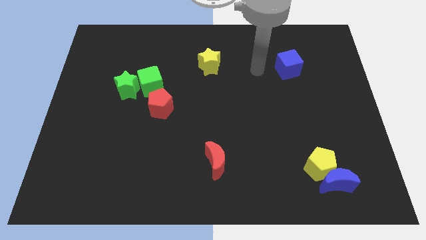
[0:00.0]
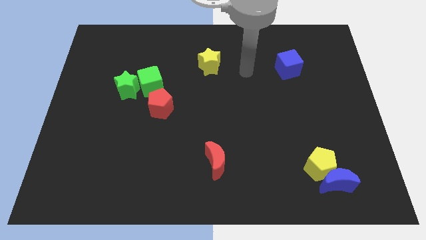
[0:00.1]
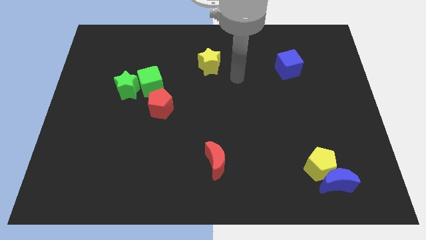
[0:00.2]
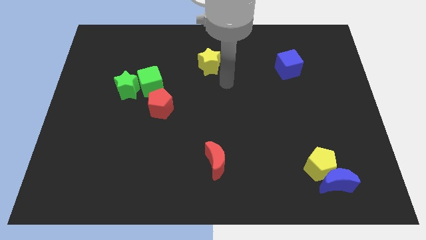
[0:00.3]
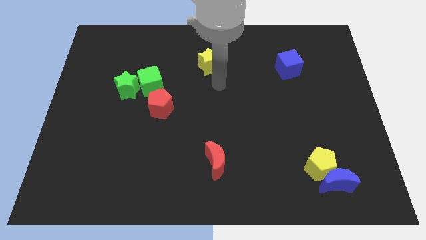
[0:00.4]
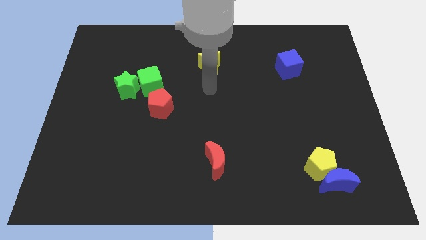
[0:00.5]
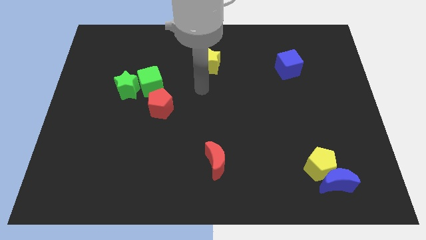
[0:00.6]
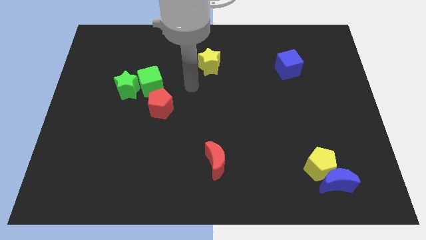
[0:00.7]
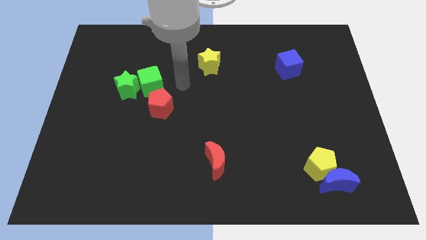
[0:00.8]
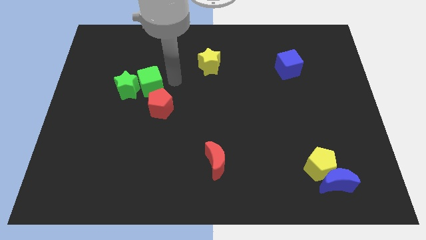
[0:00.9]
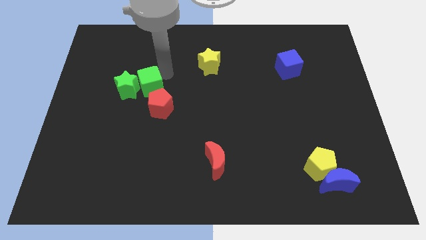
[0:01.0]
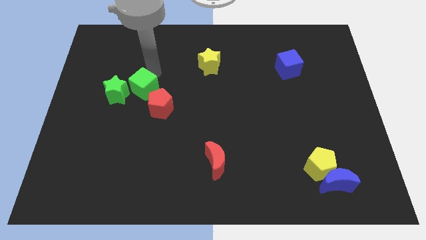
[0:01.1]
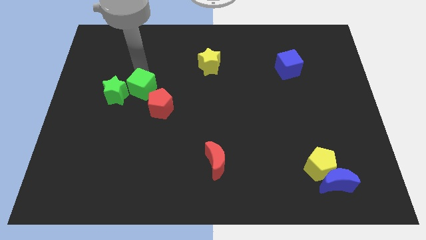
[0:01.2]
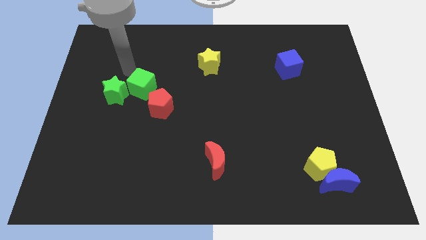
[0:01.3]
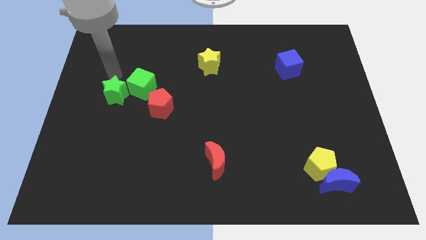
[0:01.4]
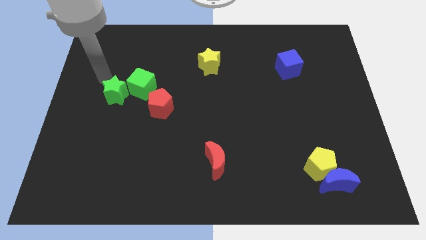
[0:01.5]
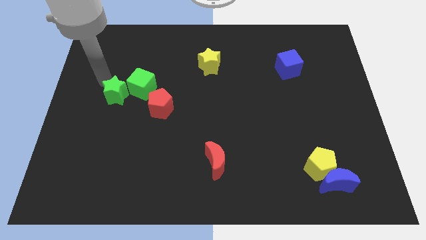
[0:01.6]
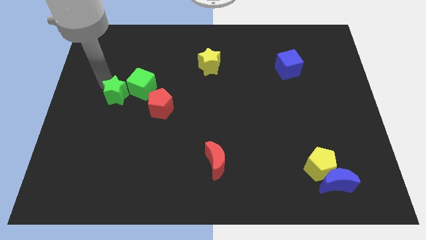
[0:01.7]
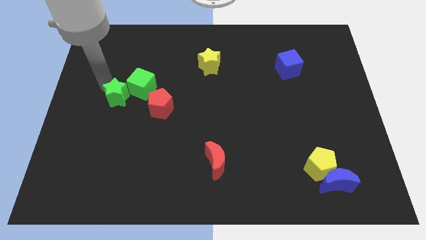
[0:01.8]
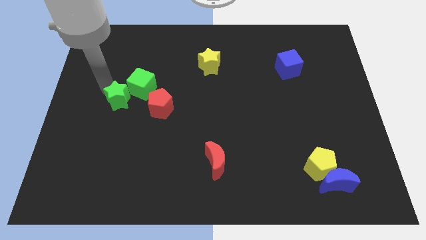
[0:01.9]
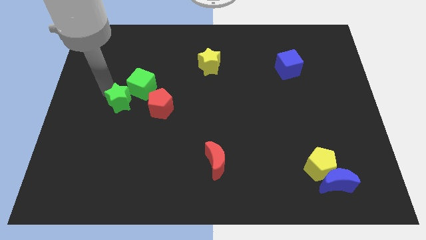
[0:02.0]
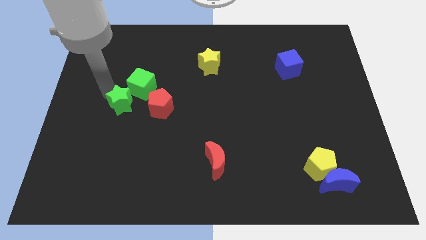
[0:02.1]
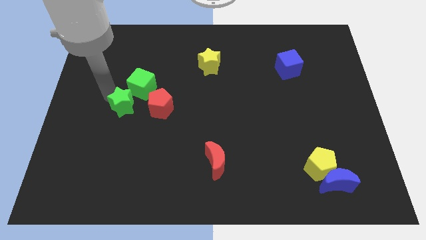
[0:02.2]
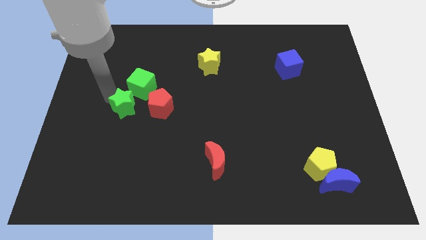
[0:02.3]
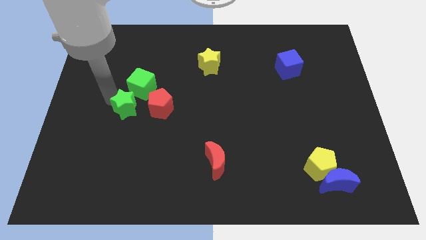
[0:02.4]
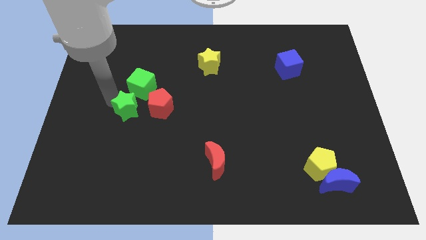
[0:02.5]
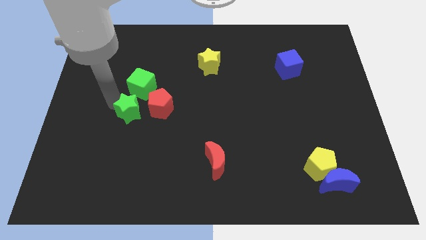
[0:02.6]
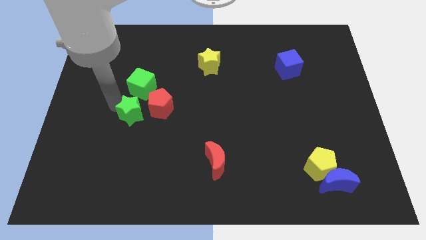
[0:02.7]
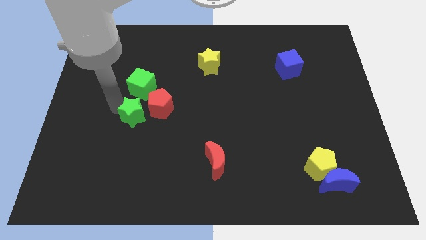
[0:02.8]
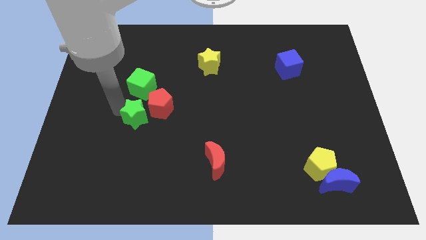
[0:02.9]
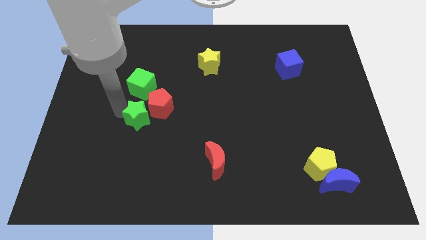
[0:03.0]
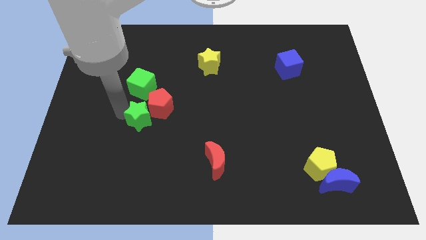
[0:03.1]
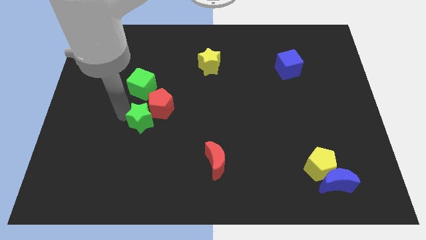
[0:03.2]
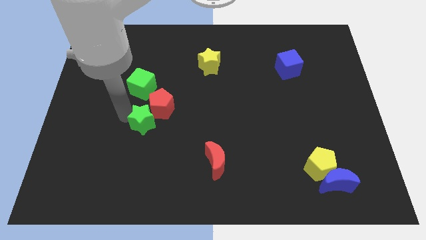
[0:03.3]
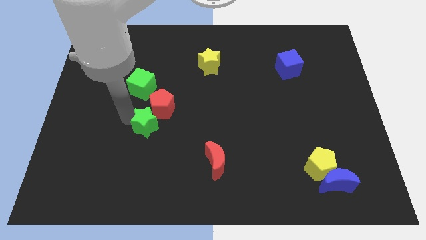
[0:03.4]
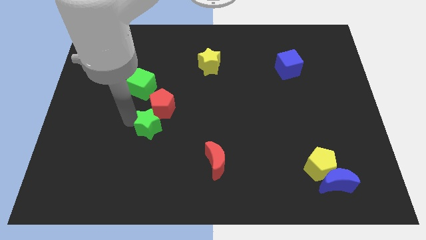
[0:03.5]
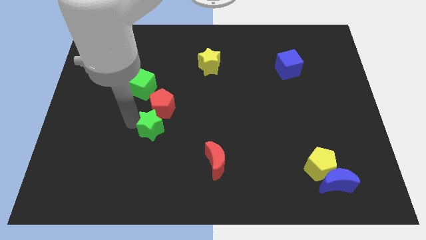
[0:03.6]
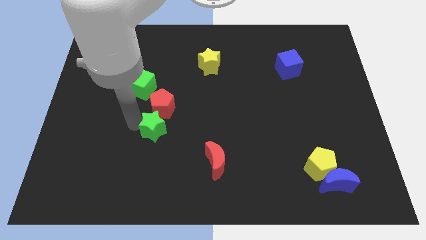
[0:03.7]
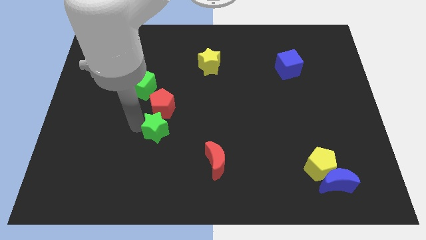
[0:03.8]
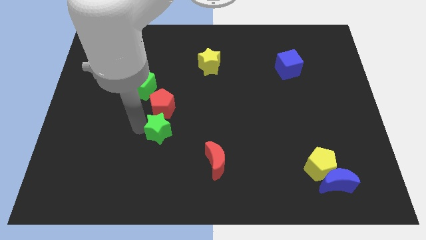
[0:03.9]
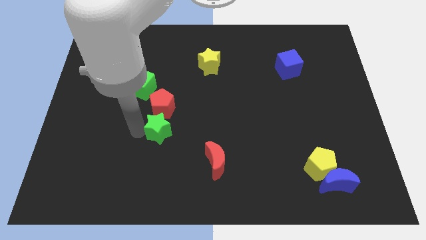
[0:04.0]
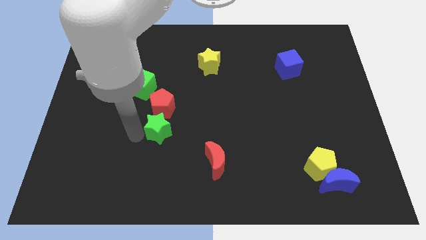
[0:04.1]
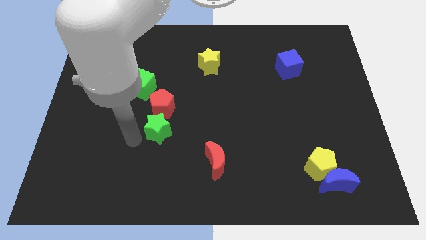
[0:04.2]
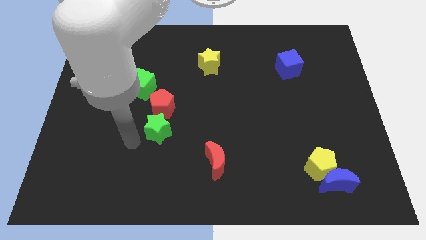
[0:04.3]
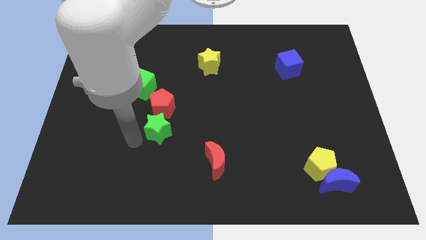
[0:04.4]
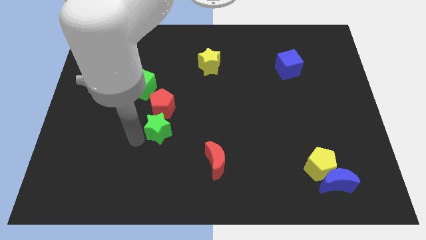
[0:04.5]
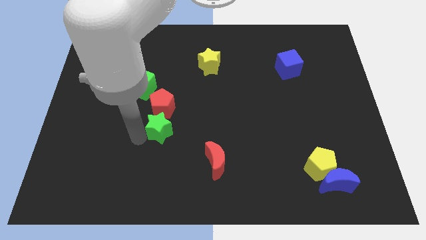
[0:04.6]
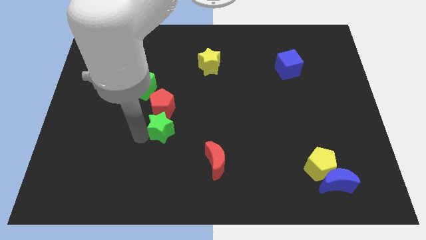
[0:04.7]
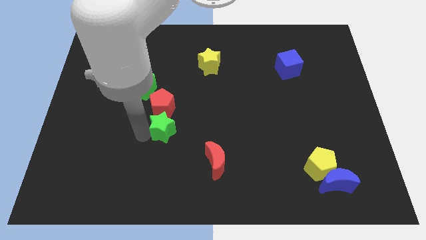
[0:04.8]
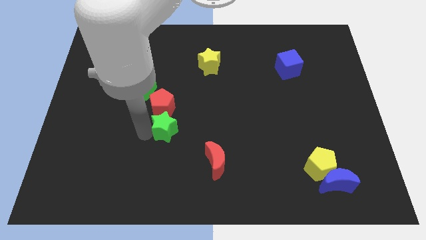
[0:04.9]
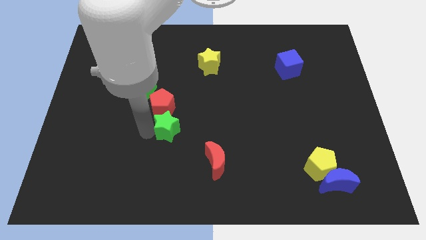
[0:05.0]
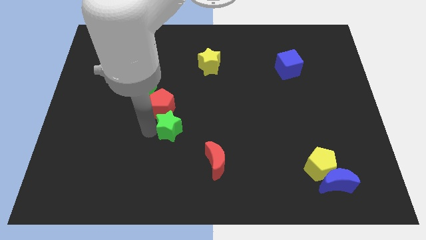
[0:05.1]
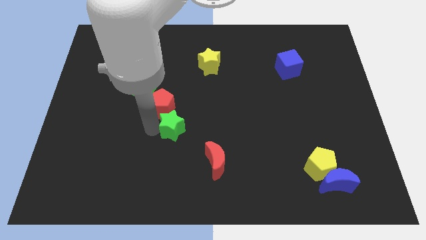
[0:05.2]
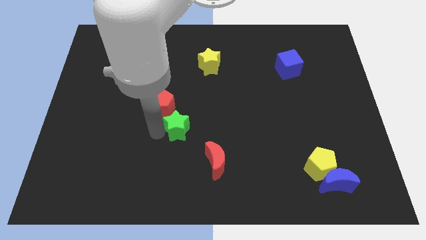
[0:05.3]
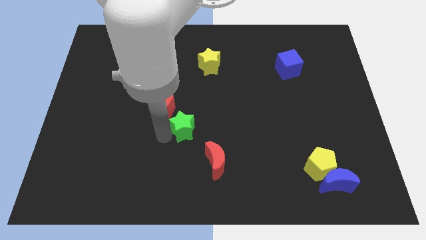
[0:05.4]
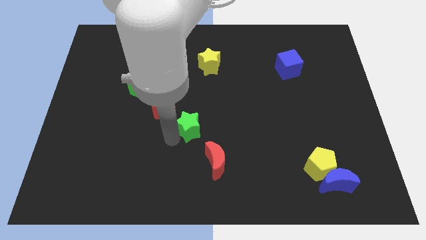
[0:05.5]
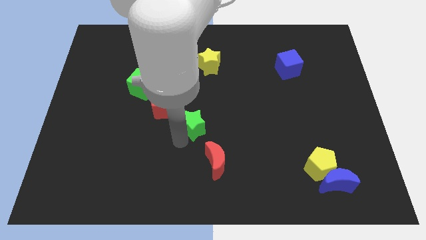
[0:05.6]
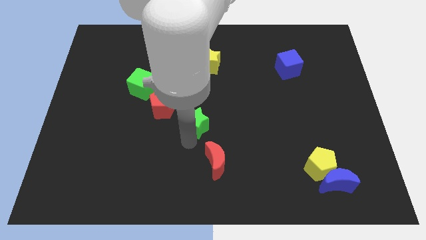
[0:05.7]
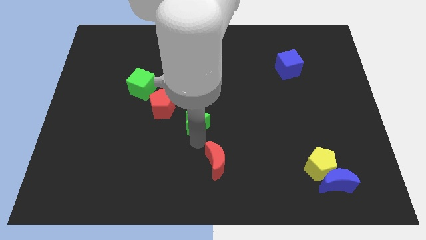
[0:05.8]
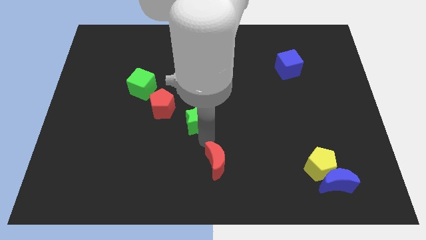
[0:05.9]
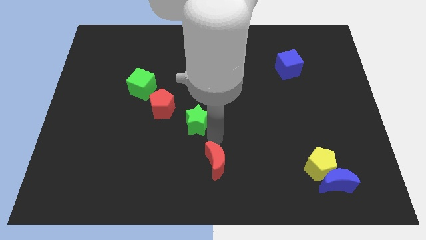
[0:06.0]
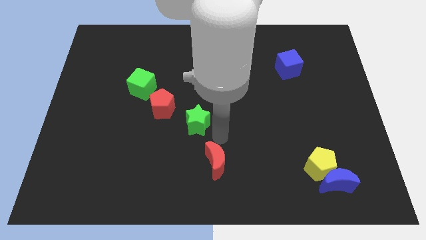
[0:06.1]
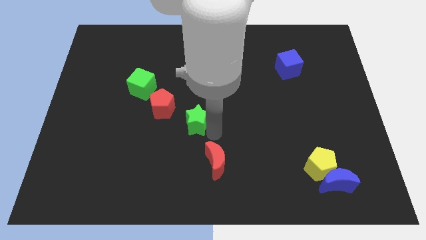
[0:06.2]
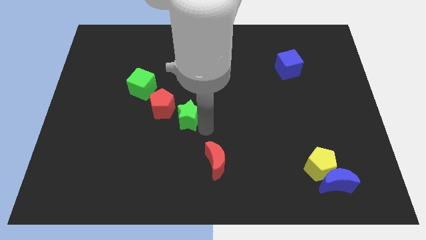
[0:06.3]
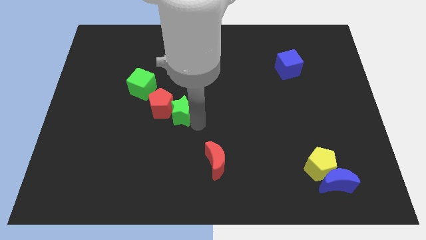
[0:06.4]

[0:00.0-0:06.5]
put the green star to the bottom right of the green cube

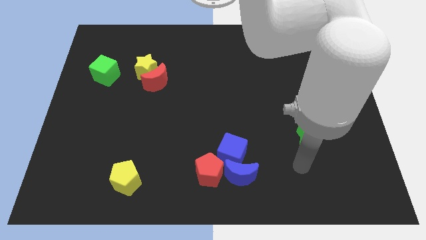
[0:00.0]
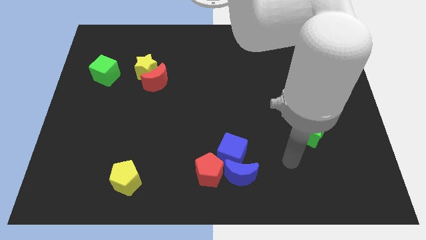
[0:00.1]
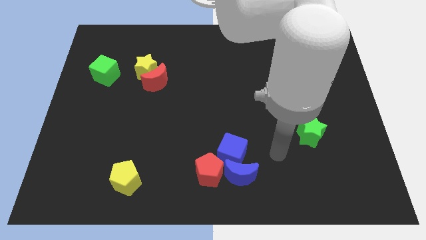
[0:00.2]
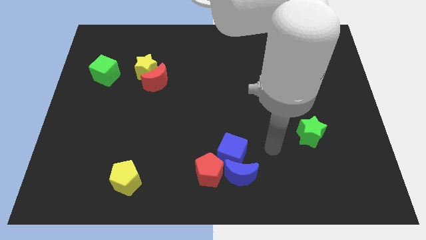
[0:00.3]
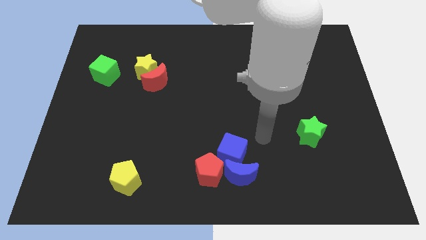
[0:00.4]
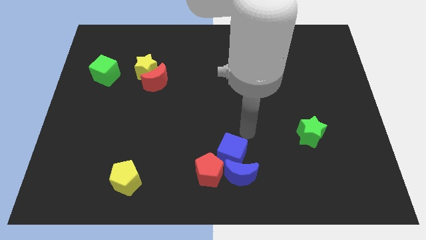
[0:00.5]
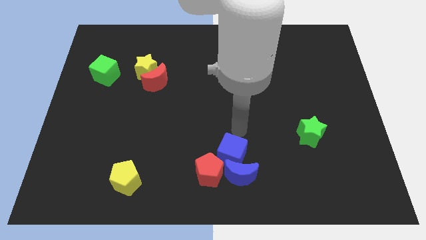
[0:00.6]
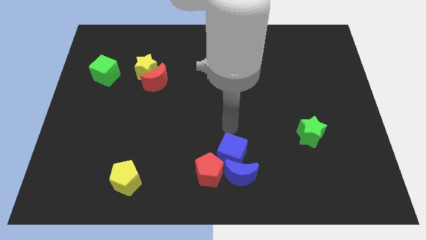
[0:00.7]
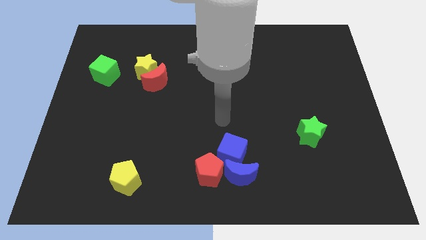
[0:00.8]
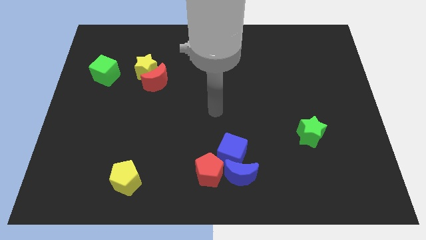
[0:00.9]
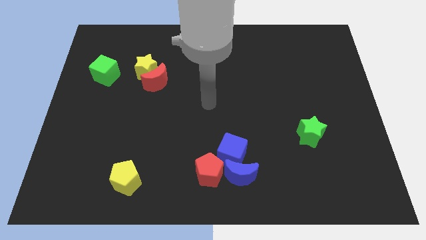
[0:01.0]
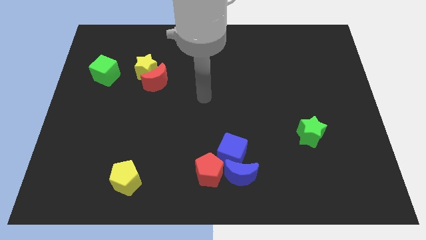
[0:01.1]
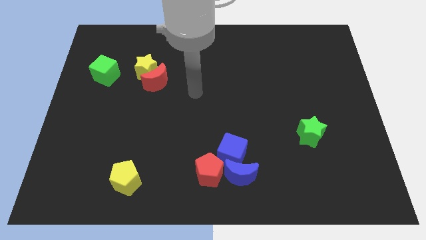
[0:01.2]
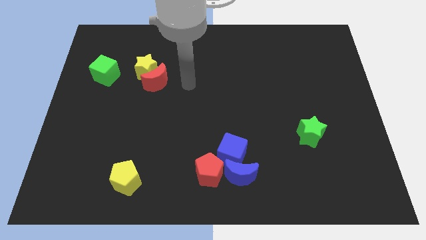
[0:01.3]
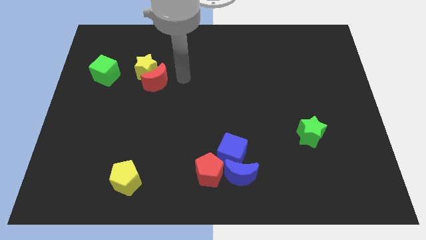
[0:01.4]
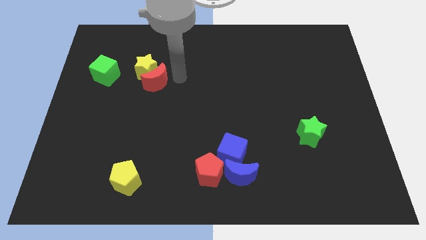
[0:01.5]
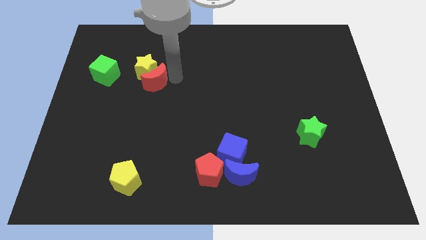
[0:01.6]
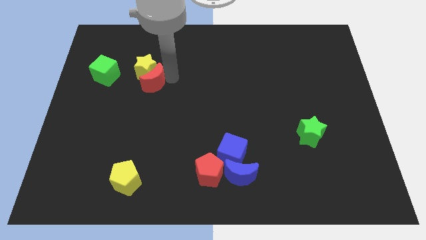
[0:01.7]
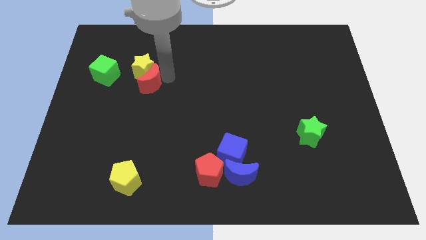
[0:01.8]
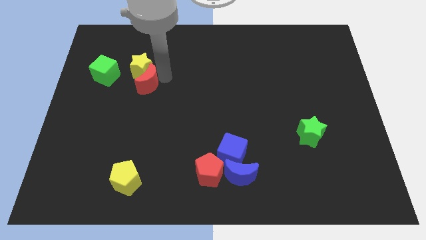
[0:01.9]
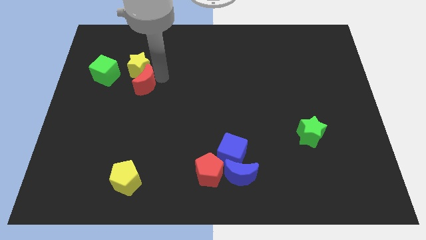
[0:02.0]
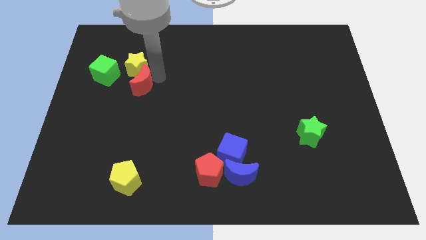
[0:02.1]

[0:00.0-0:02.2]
put the red moon to the bottom right of the green cube
